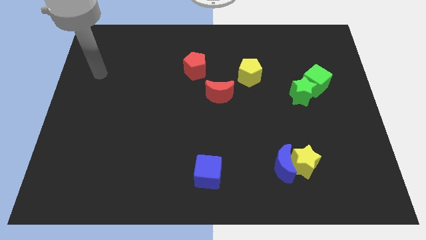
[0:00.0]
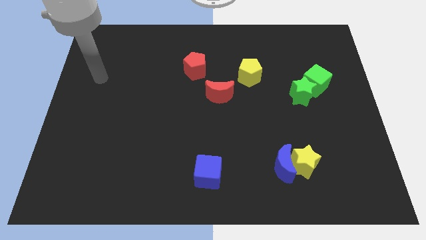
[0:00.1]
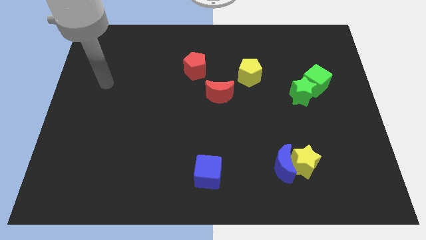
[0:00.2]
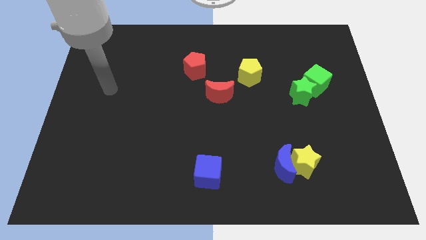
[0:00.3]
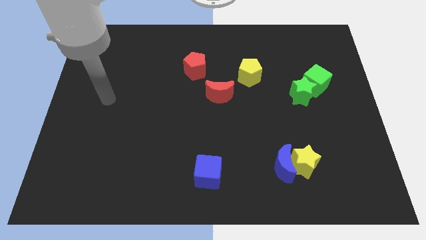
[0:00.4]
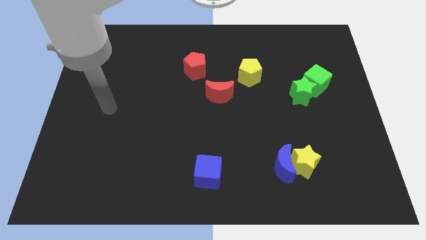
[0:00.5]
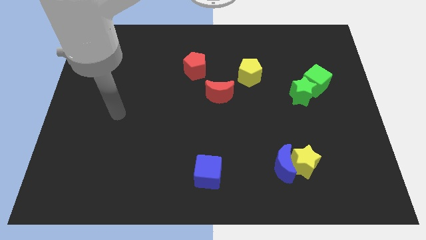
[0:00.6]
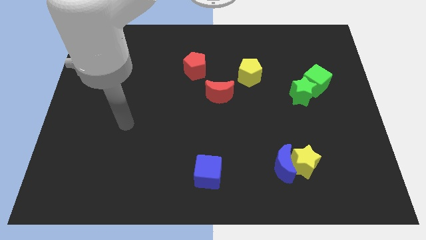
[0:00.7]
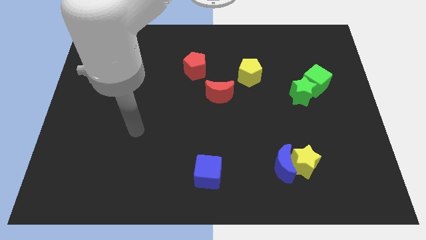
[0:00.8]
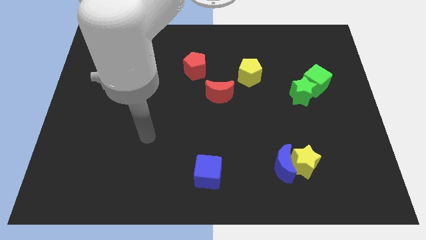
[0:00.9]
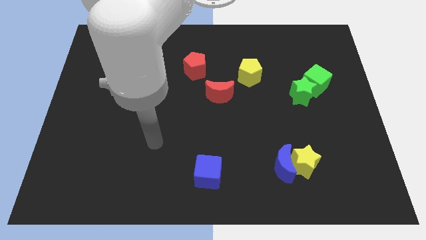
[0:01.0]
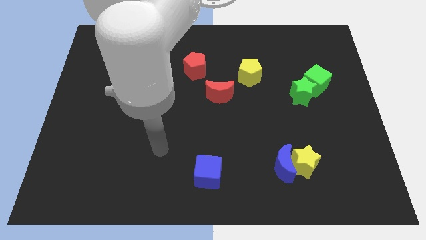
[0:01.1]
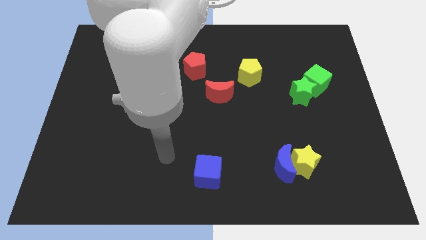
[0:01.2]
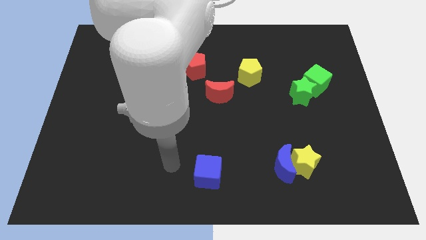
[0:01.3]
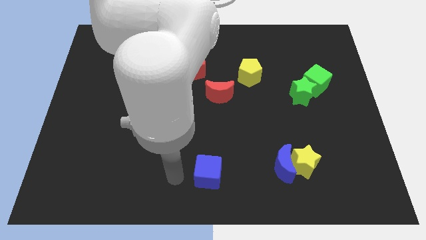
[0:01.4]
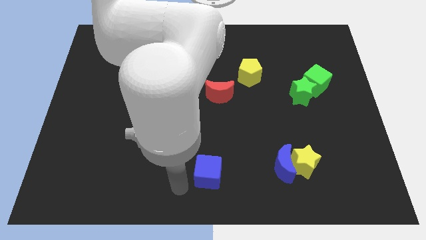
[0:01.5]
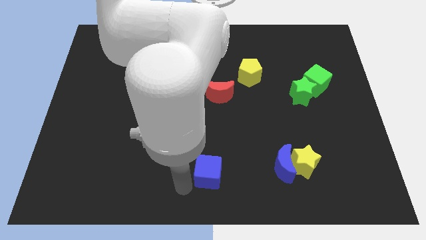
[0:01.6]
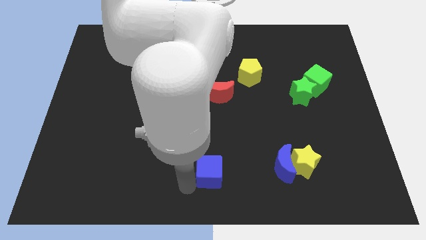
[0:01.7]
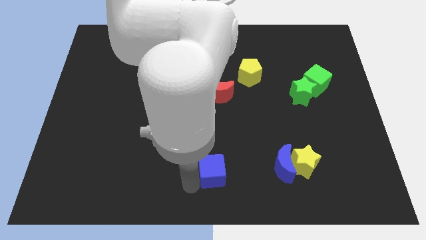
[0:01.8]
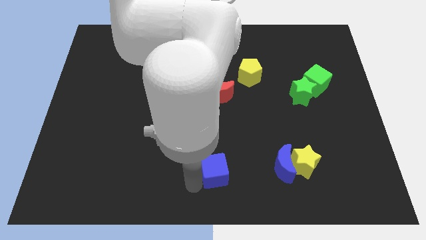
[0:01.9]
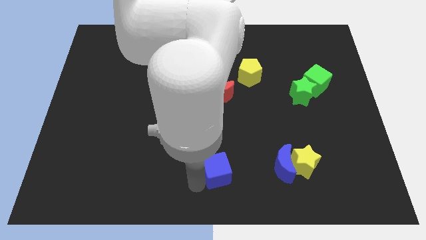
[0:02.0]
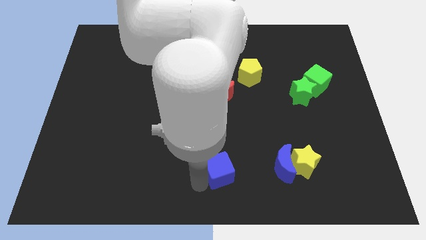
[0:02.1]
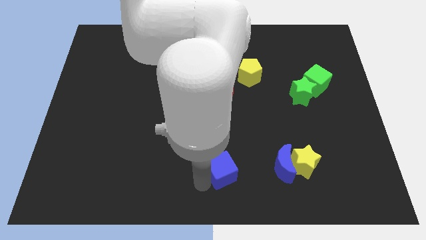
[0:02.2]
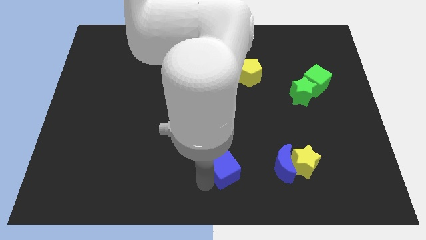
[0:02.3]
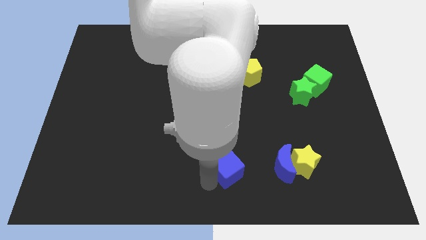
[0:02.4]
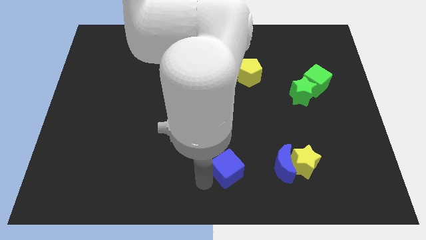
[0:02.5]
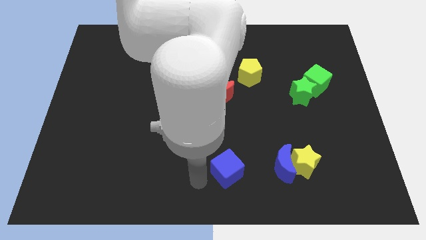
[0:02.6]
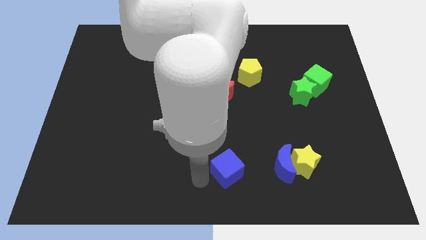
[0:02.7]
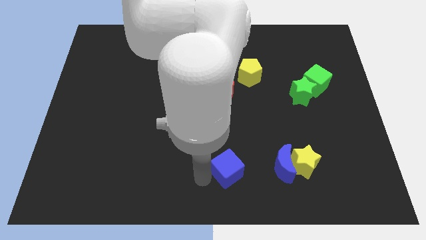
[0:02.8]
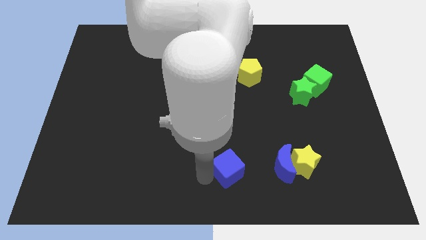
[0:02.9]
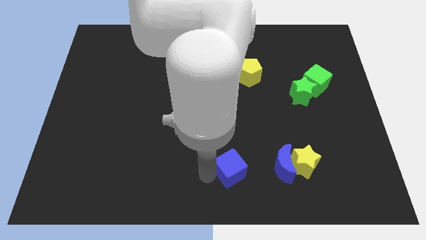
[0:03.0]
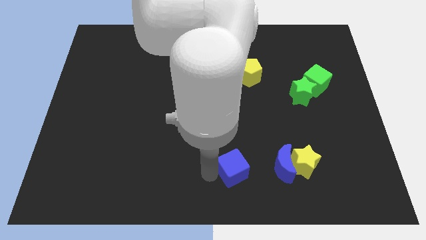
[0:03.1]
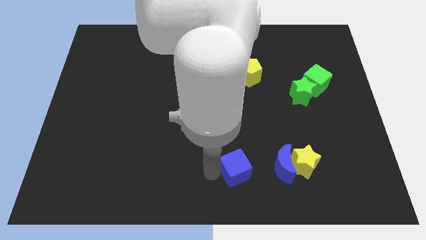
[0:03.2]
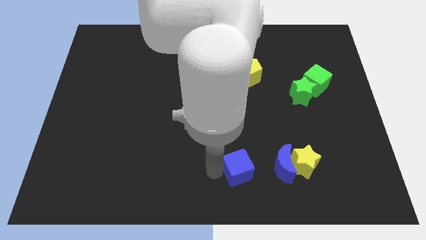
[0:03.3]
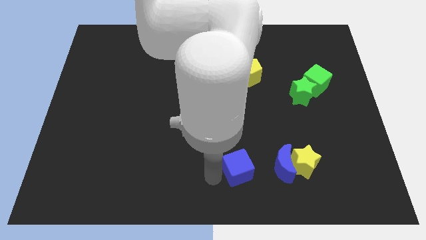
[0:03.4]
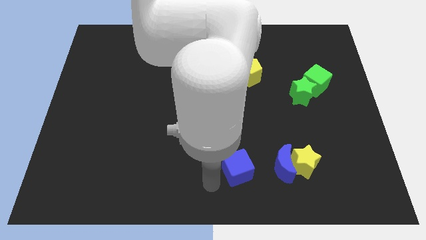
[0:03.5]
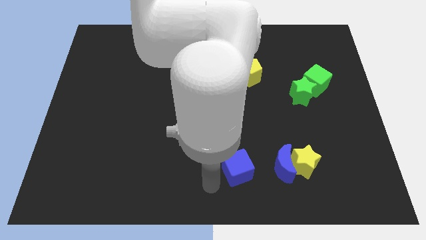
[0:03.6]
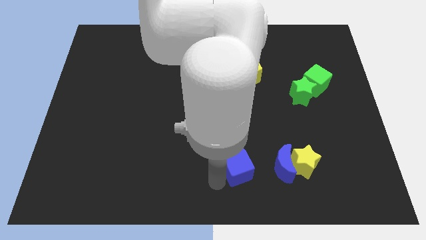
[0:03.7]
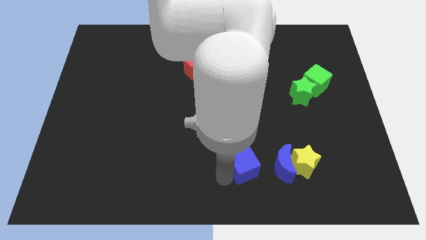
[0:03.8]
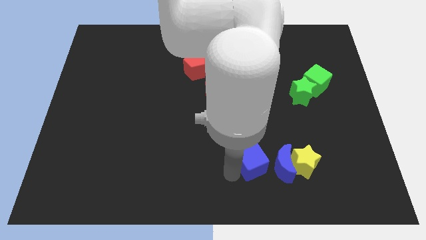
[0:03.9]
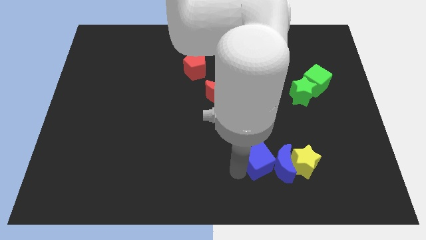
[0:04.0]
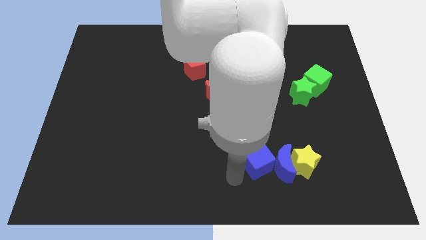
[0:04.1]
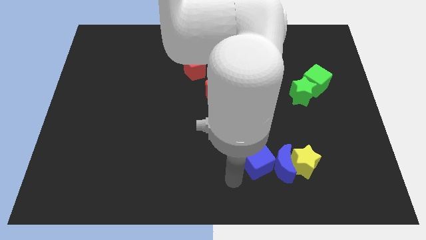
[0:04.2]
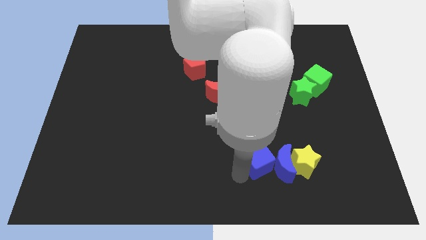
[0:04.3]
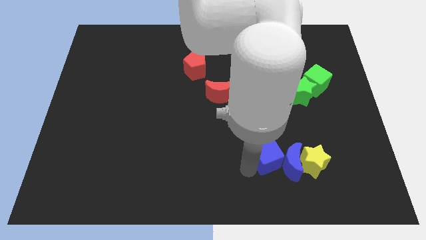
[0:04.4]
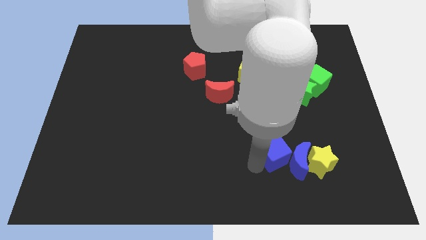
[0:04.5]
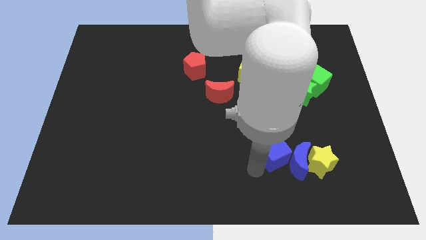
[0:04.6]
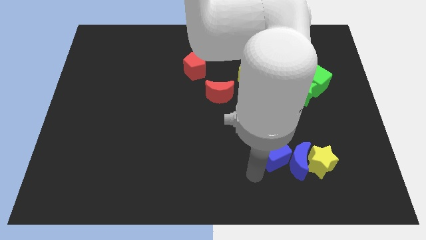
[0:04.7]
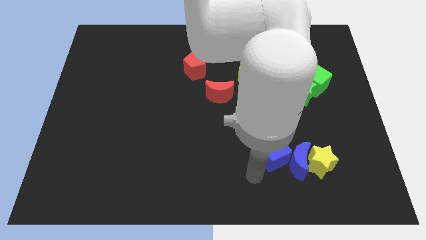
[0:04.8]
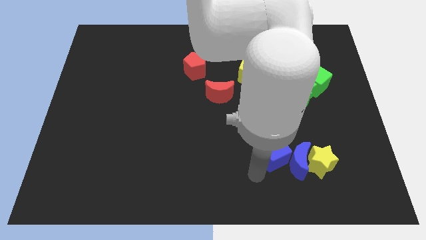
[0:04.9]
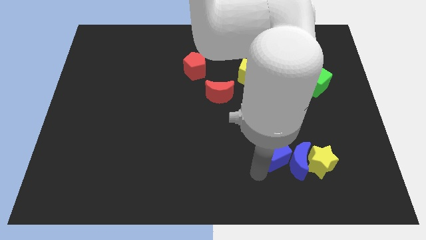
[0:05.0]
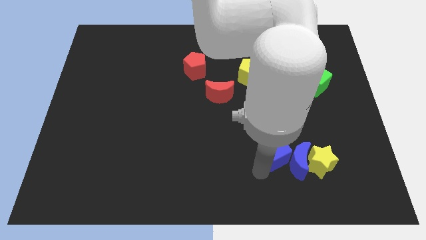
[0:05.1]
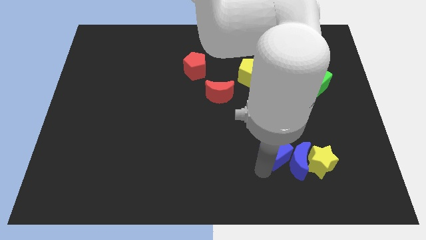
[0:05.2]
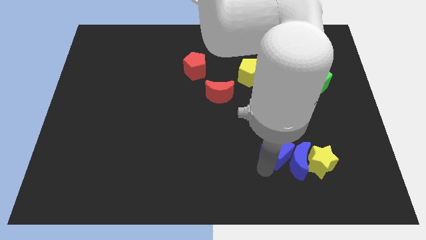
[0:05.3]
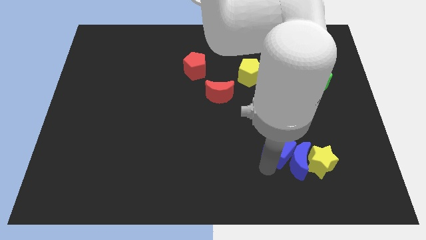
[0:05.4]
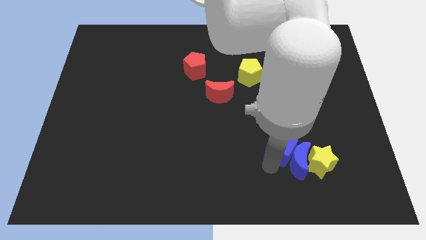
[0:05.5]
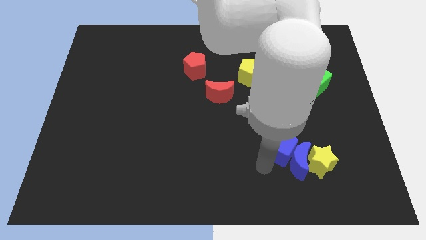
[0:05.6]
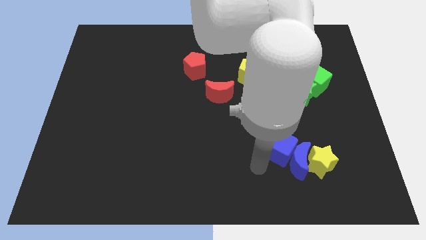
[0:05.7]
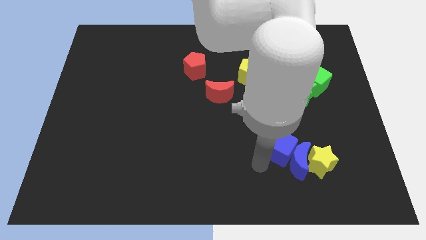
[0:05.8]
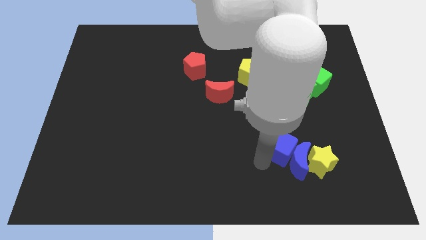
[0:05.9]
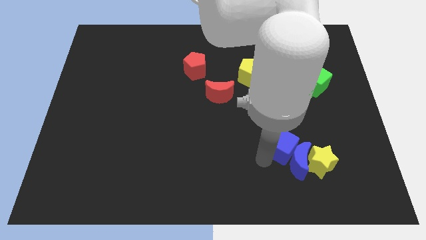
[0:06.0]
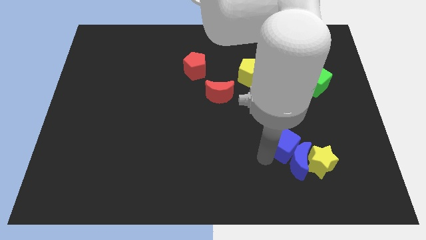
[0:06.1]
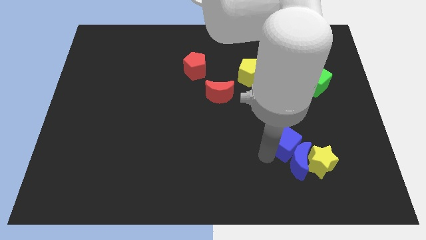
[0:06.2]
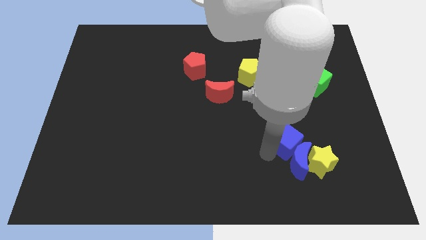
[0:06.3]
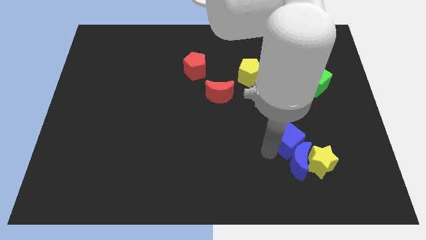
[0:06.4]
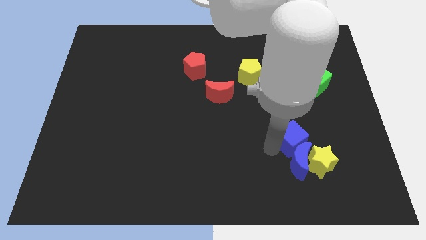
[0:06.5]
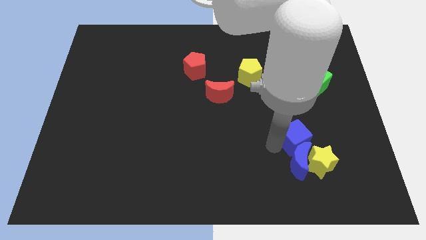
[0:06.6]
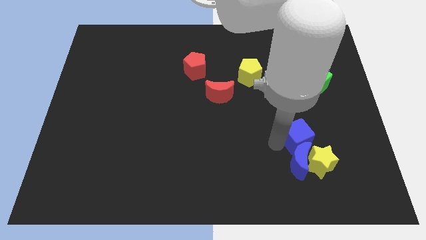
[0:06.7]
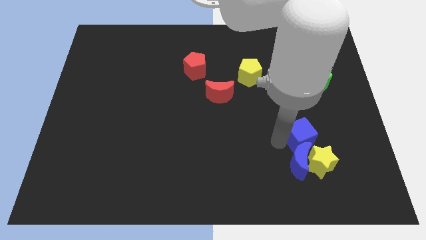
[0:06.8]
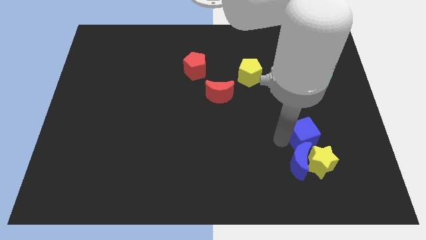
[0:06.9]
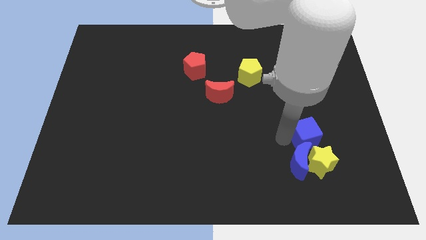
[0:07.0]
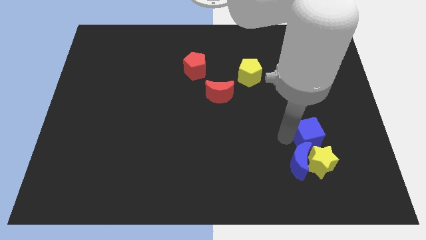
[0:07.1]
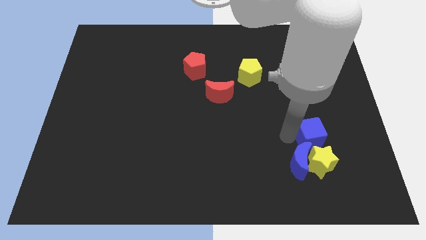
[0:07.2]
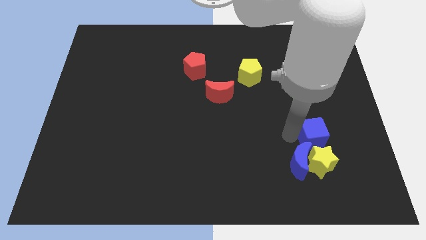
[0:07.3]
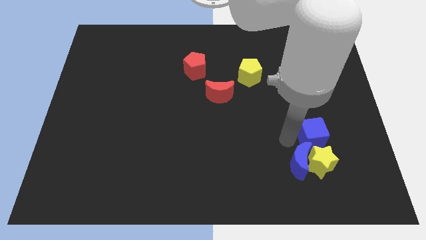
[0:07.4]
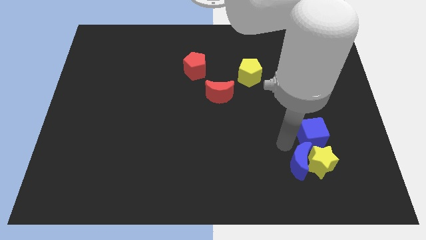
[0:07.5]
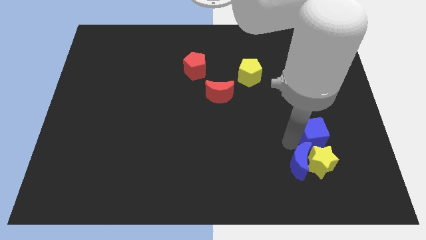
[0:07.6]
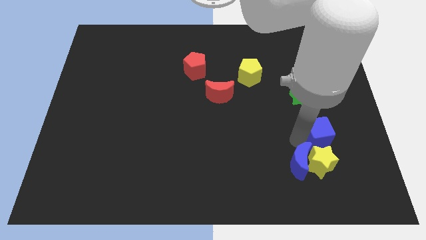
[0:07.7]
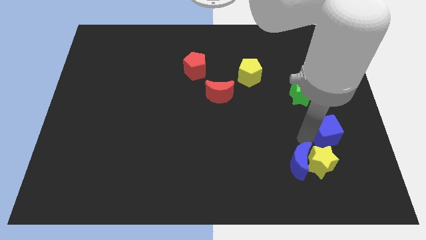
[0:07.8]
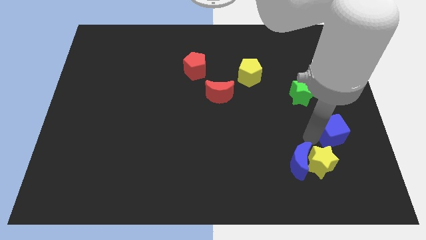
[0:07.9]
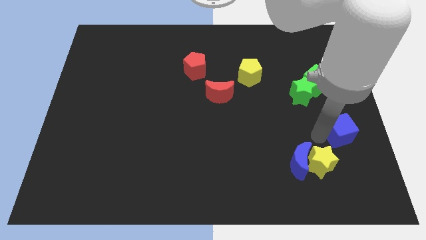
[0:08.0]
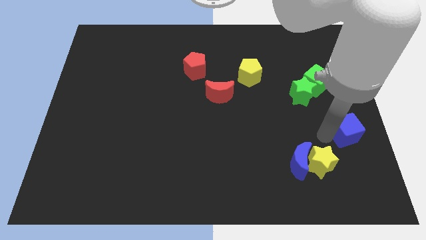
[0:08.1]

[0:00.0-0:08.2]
move the blue cube to the right side
